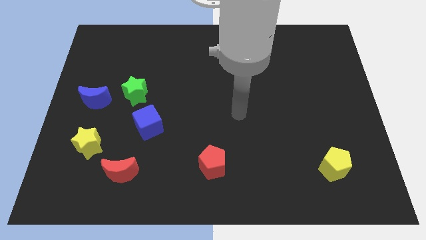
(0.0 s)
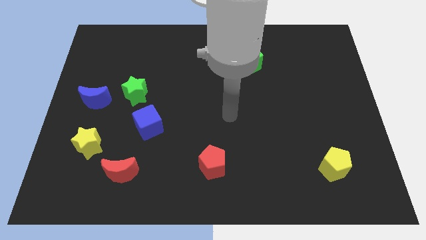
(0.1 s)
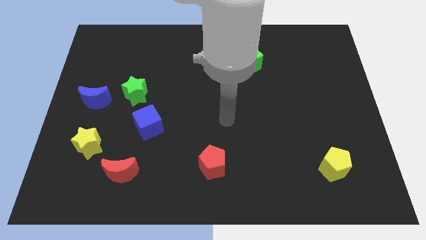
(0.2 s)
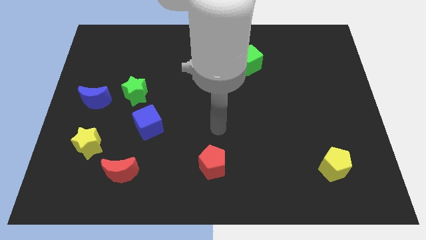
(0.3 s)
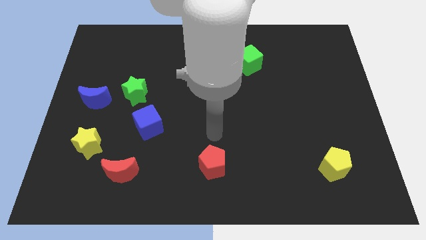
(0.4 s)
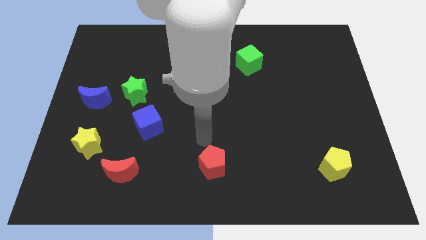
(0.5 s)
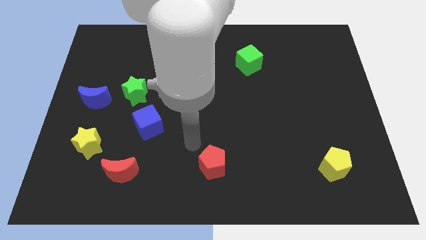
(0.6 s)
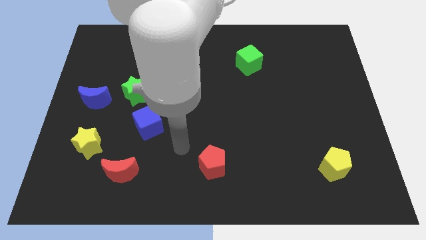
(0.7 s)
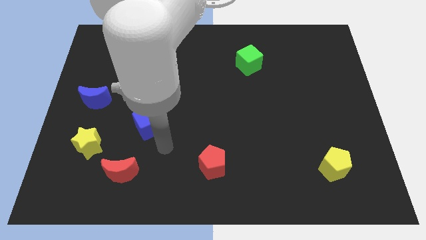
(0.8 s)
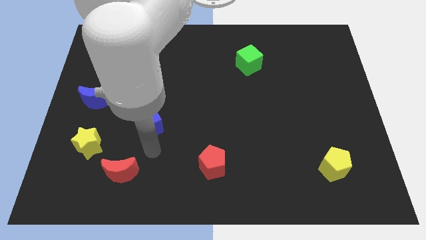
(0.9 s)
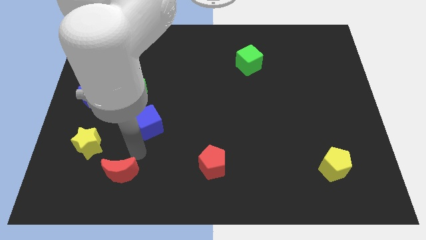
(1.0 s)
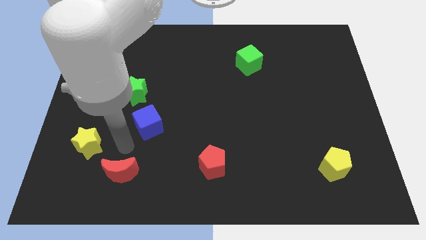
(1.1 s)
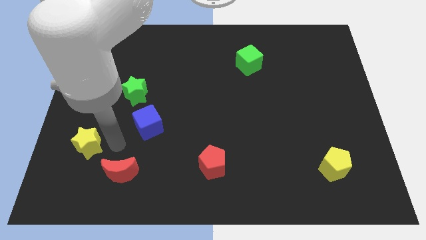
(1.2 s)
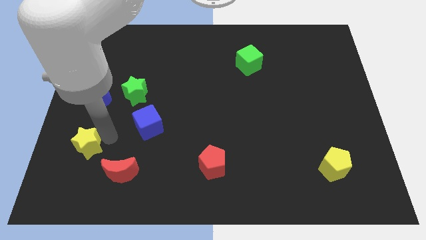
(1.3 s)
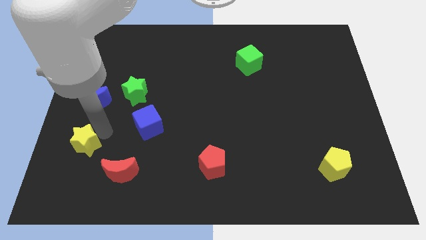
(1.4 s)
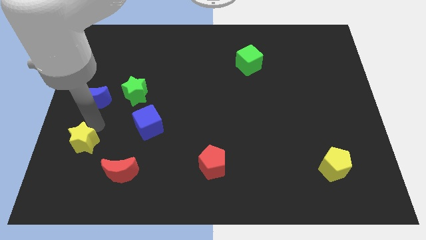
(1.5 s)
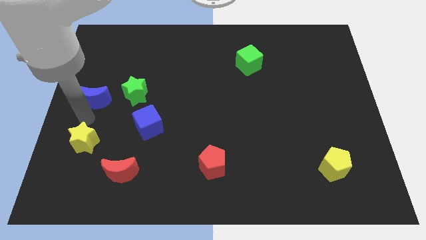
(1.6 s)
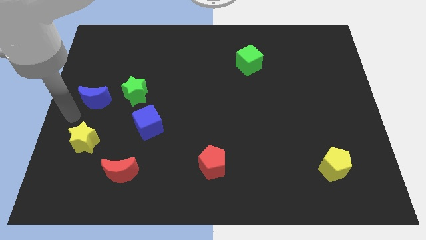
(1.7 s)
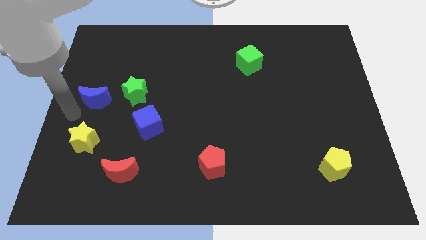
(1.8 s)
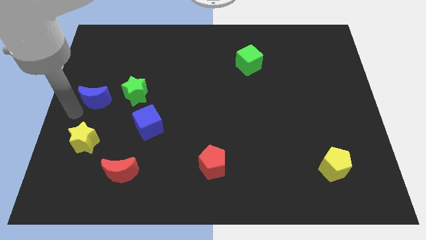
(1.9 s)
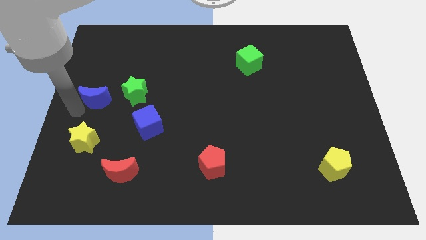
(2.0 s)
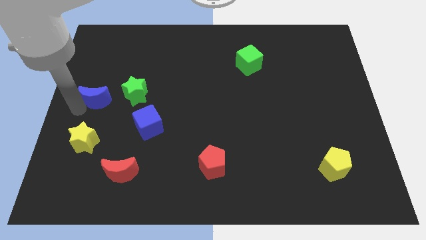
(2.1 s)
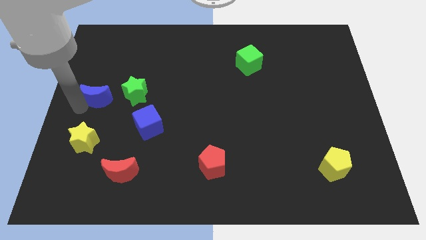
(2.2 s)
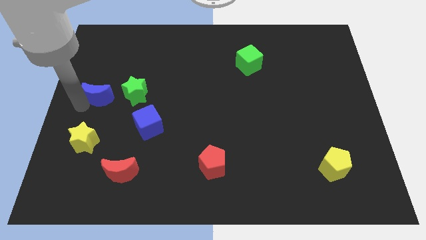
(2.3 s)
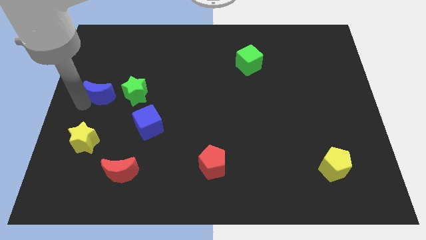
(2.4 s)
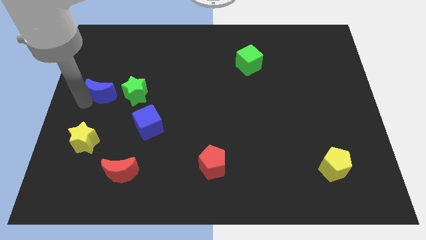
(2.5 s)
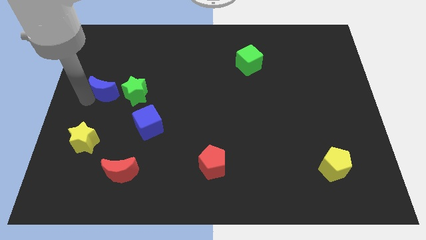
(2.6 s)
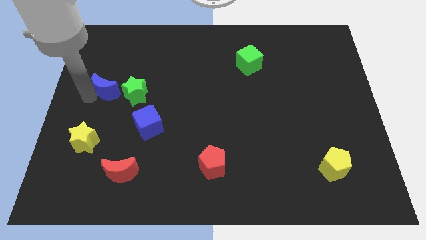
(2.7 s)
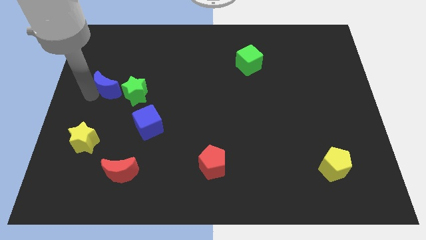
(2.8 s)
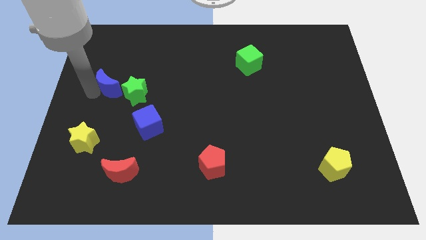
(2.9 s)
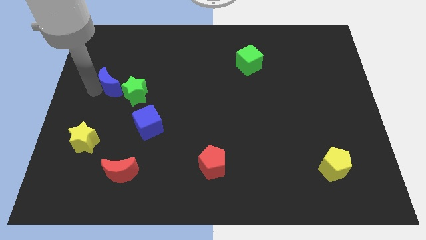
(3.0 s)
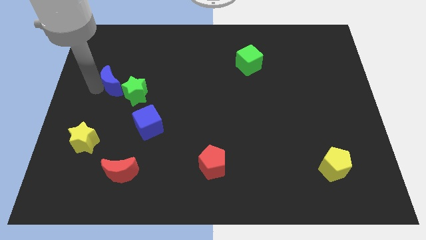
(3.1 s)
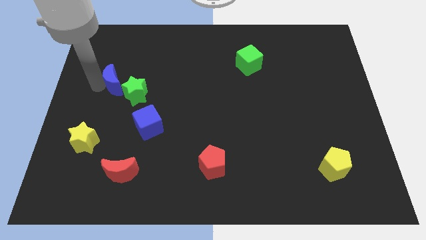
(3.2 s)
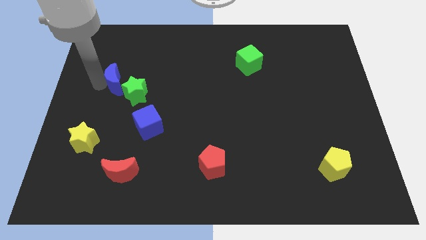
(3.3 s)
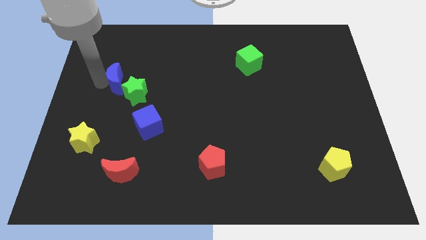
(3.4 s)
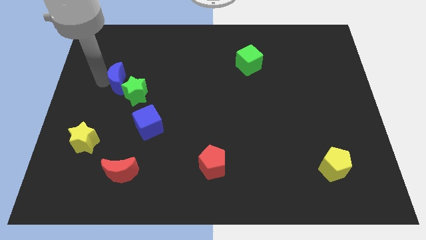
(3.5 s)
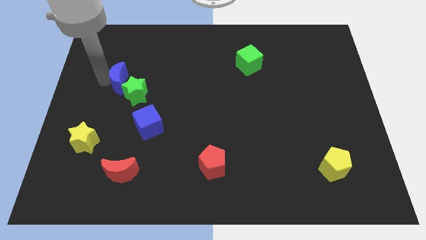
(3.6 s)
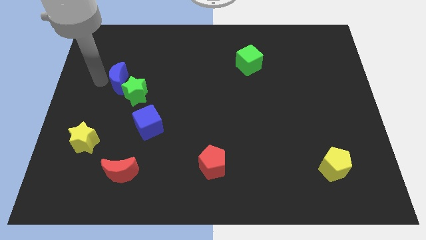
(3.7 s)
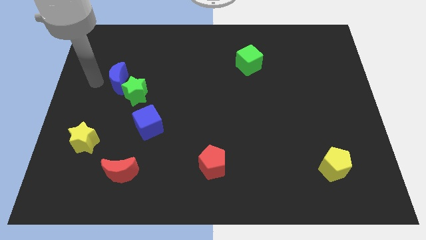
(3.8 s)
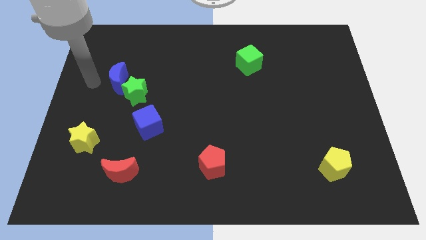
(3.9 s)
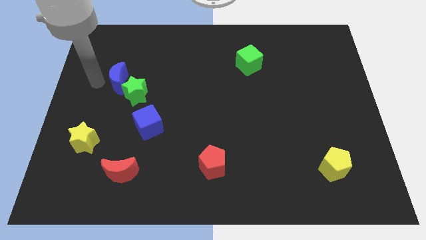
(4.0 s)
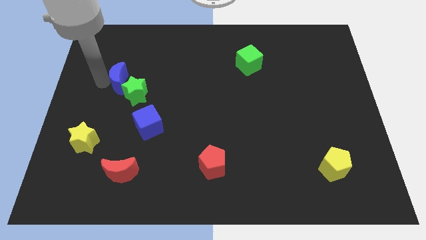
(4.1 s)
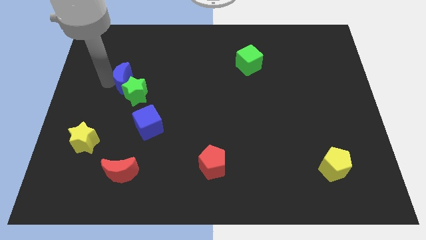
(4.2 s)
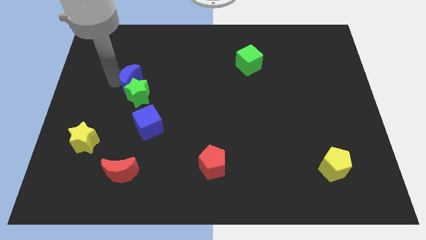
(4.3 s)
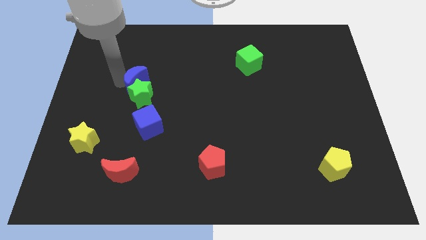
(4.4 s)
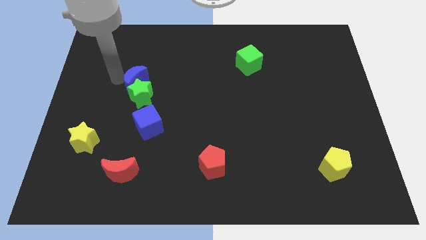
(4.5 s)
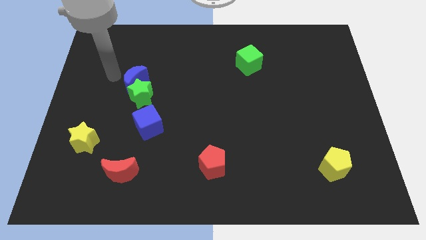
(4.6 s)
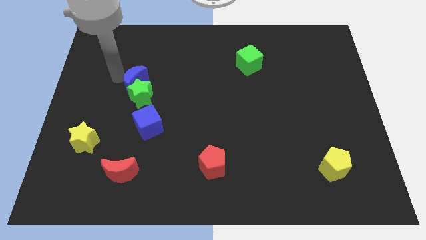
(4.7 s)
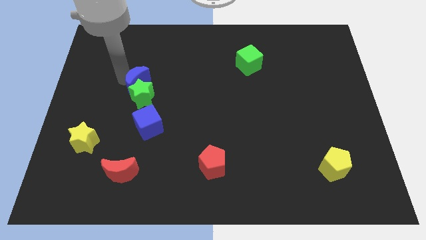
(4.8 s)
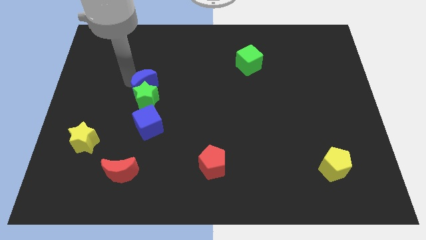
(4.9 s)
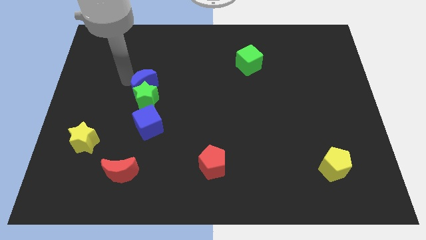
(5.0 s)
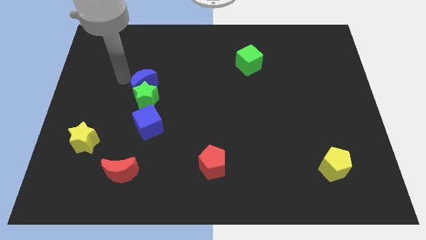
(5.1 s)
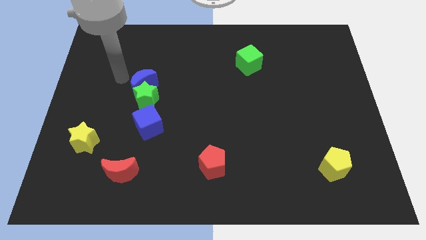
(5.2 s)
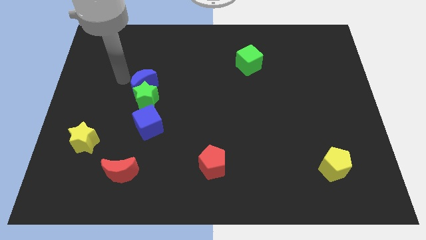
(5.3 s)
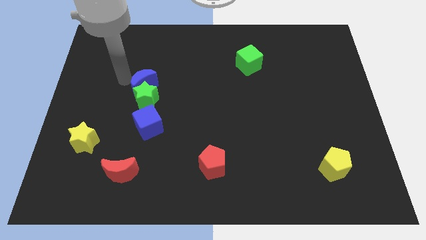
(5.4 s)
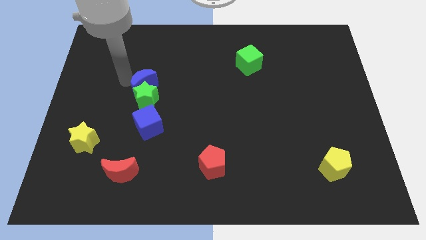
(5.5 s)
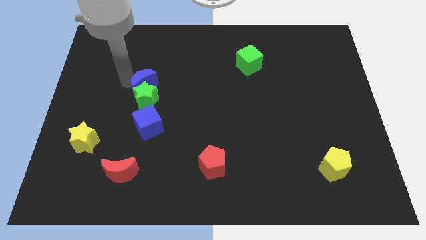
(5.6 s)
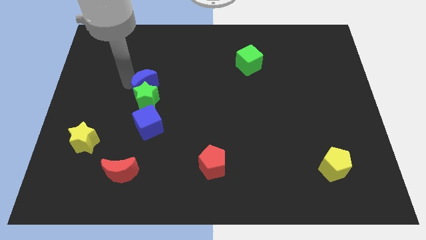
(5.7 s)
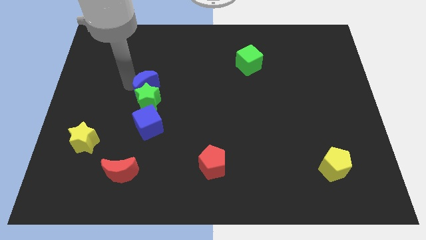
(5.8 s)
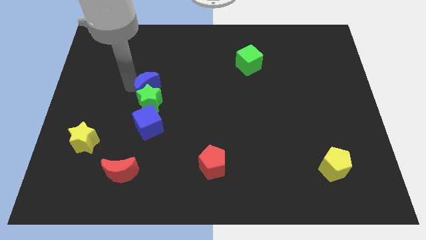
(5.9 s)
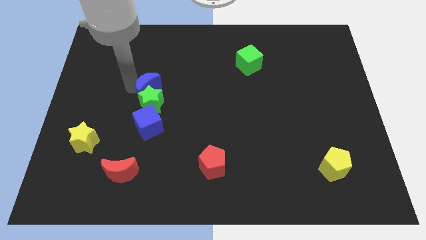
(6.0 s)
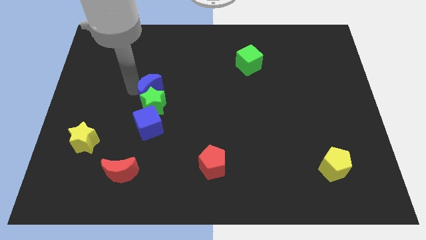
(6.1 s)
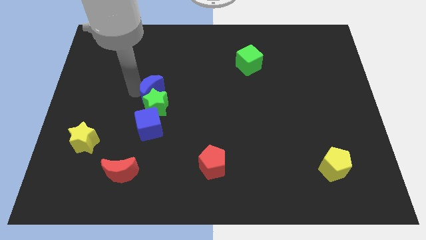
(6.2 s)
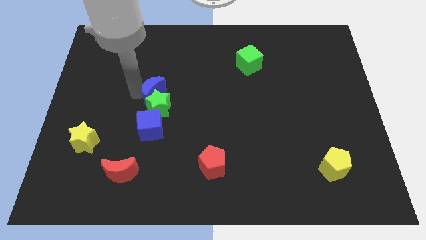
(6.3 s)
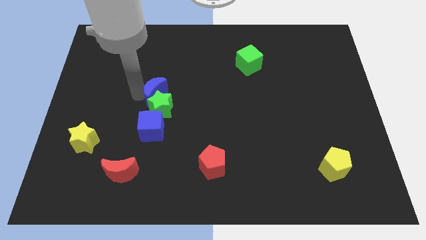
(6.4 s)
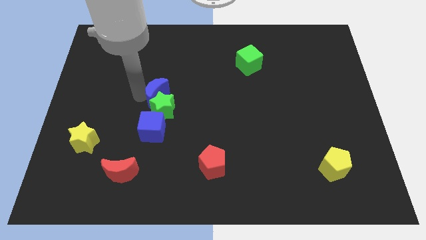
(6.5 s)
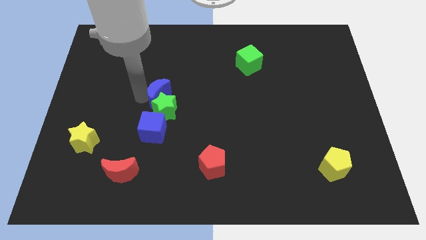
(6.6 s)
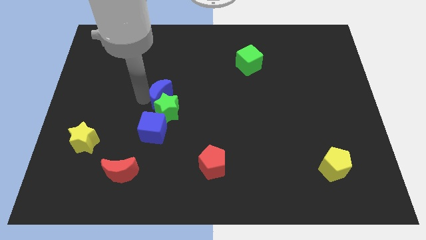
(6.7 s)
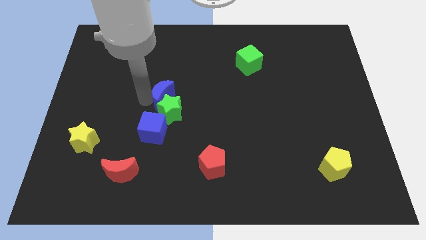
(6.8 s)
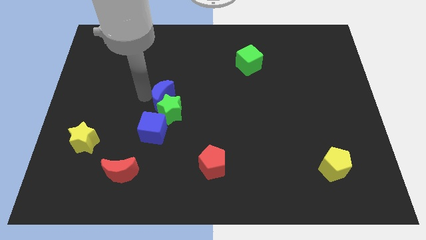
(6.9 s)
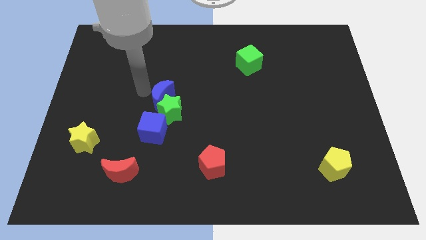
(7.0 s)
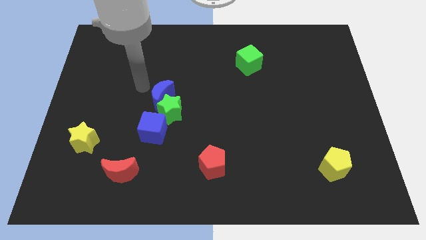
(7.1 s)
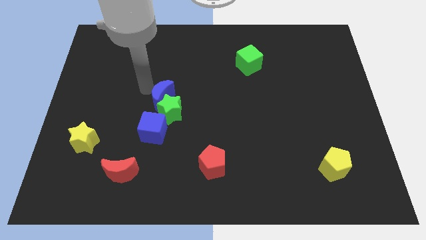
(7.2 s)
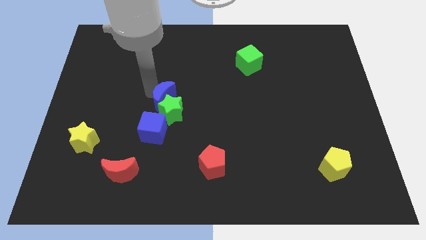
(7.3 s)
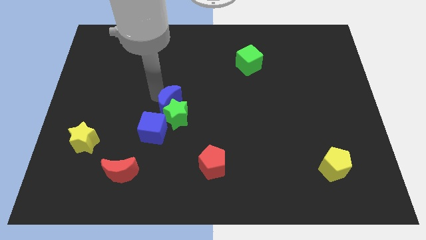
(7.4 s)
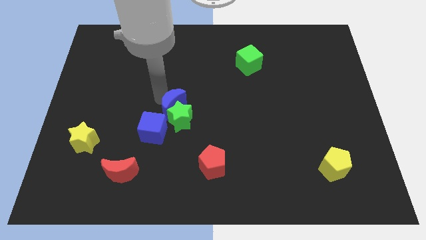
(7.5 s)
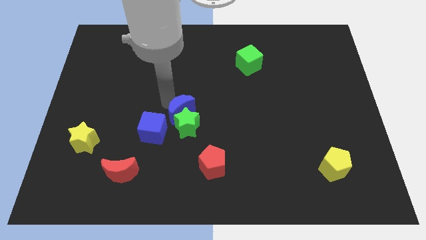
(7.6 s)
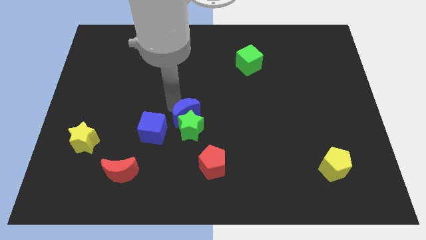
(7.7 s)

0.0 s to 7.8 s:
push the blue moon to the right of the blue cube
